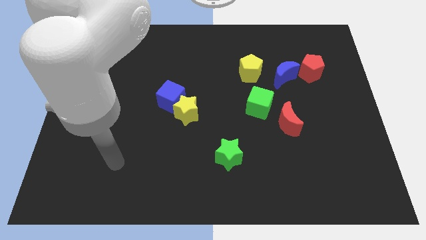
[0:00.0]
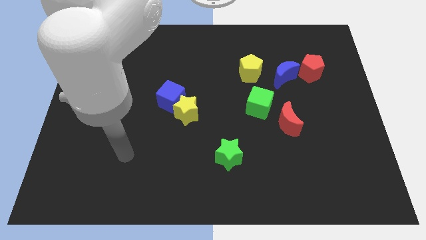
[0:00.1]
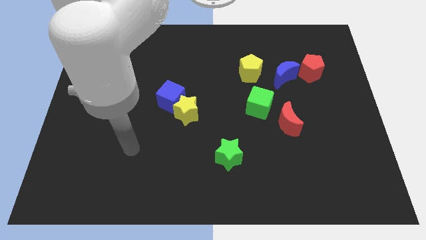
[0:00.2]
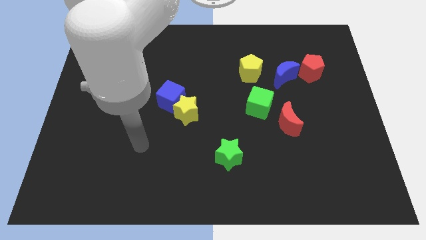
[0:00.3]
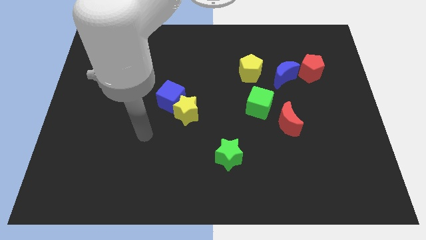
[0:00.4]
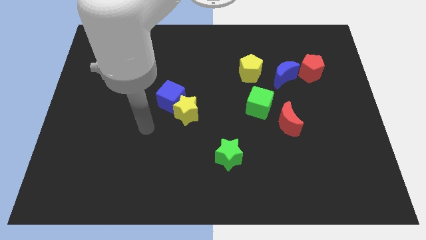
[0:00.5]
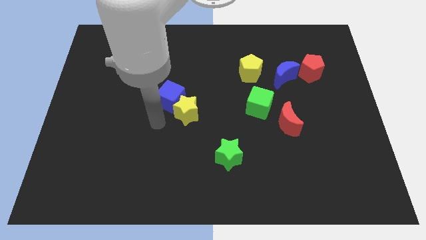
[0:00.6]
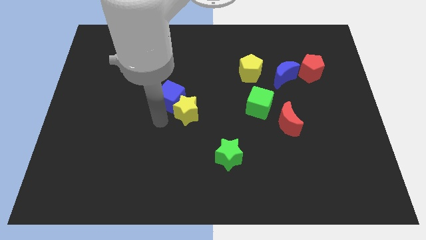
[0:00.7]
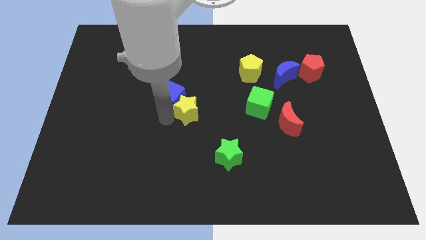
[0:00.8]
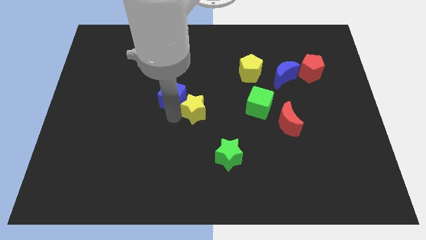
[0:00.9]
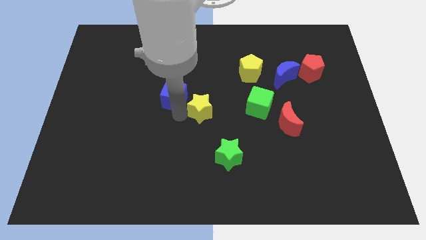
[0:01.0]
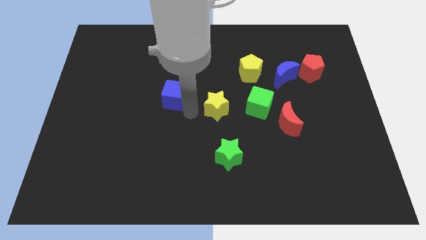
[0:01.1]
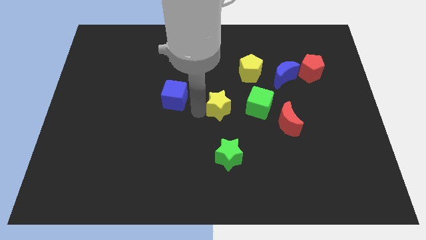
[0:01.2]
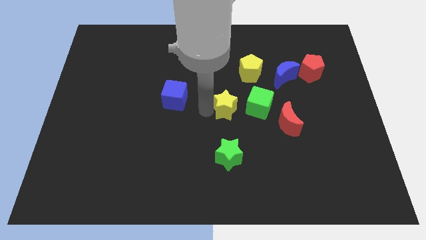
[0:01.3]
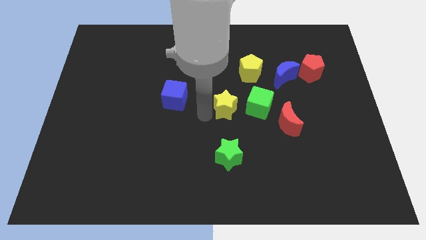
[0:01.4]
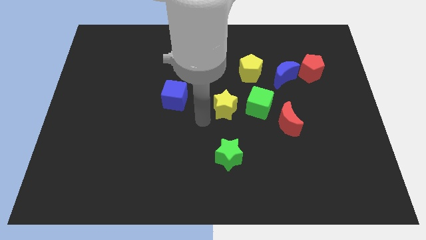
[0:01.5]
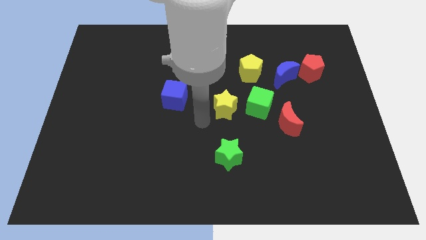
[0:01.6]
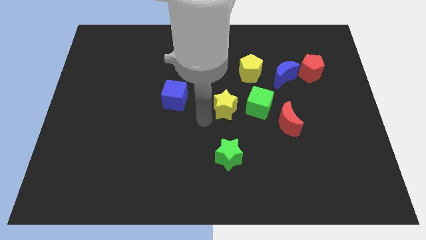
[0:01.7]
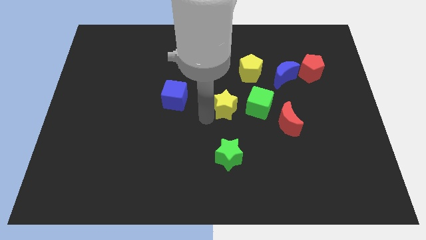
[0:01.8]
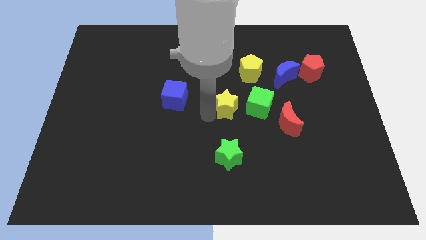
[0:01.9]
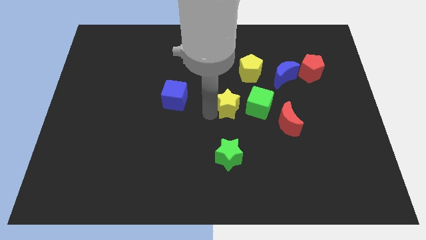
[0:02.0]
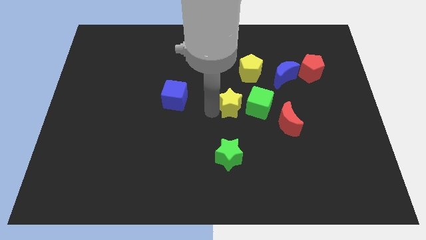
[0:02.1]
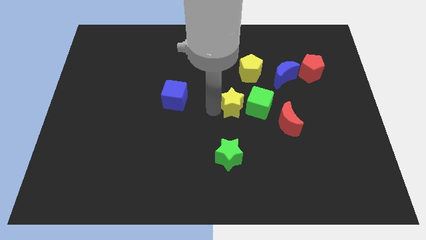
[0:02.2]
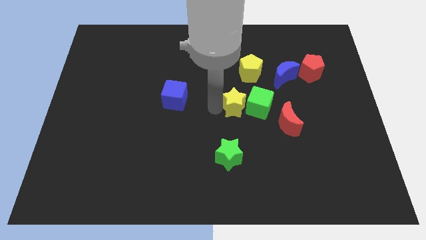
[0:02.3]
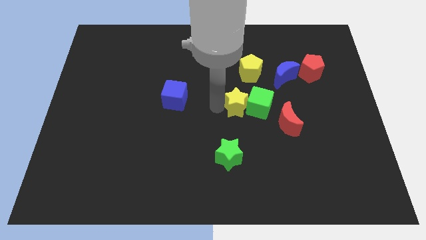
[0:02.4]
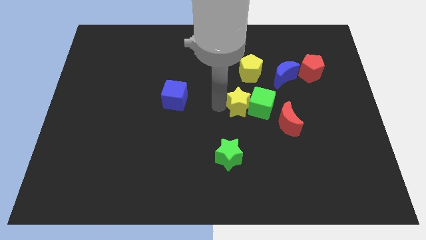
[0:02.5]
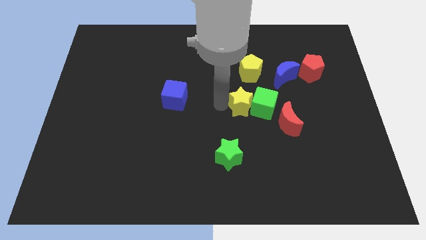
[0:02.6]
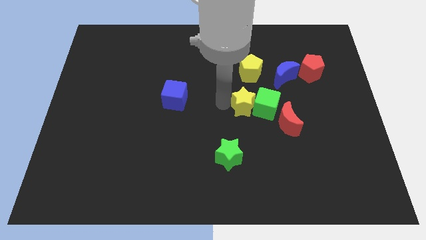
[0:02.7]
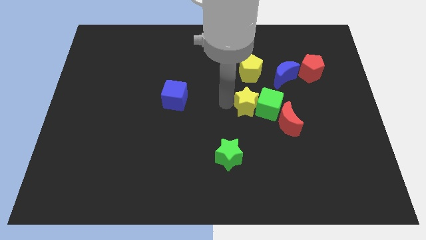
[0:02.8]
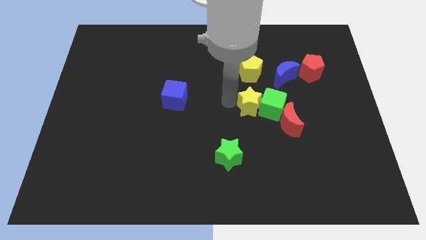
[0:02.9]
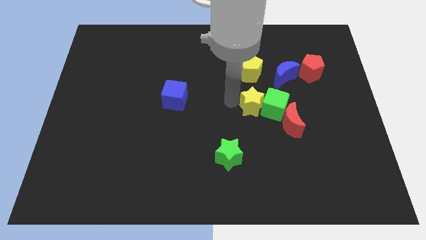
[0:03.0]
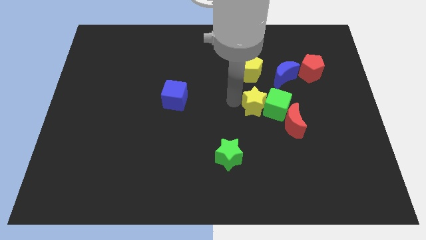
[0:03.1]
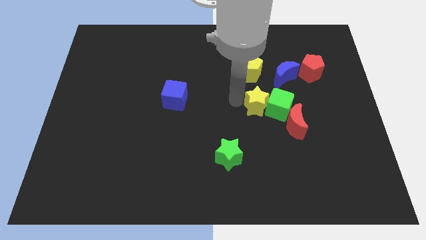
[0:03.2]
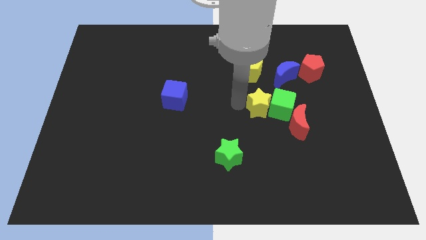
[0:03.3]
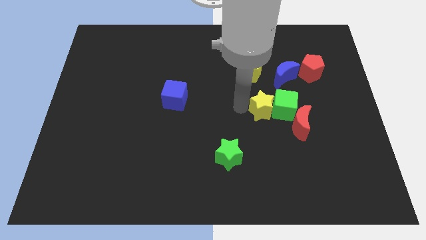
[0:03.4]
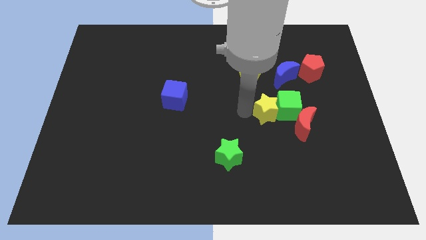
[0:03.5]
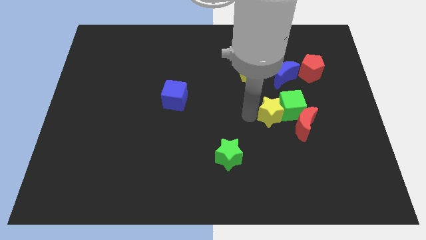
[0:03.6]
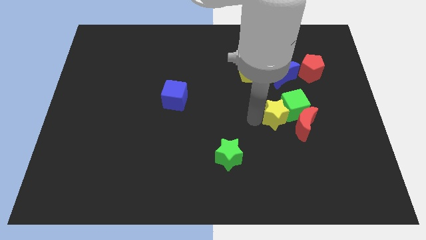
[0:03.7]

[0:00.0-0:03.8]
move the yellow star right

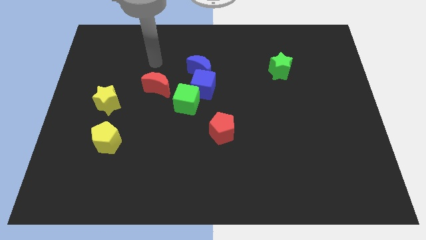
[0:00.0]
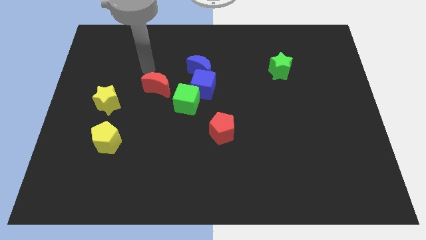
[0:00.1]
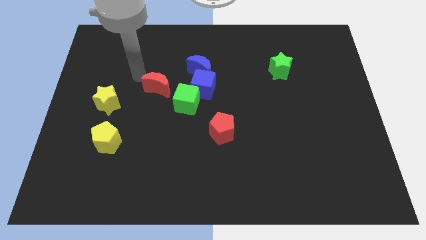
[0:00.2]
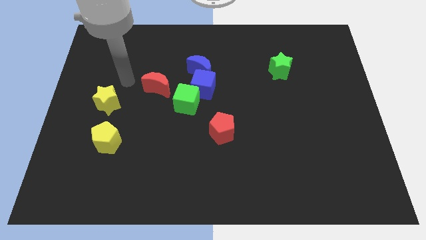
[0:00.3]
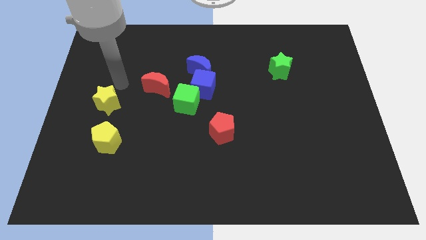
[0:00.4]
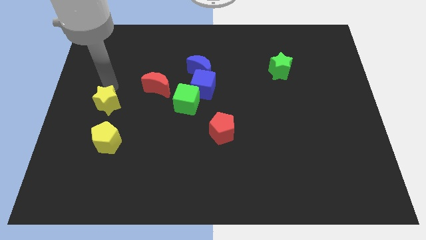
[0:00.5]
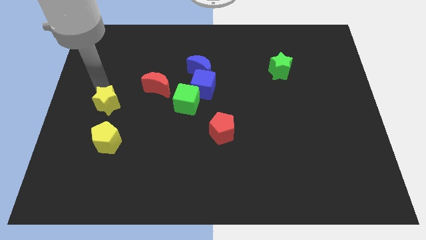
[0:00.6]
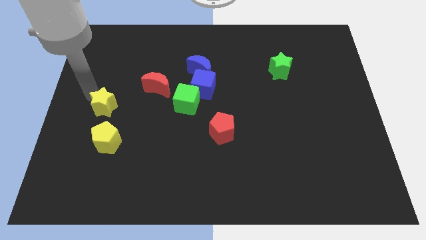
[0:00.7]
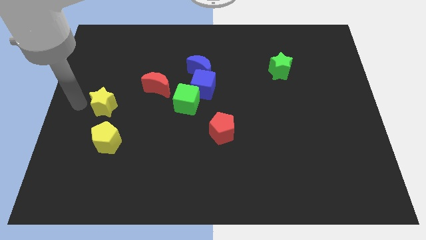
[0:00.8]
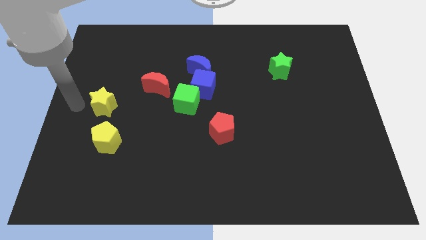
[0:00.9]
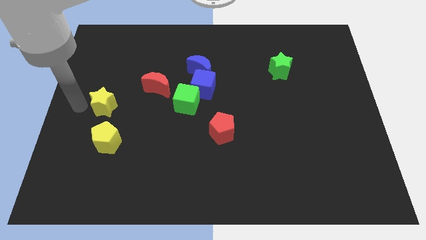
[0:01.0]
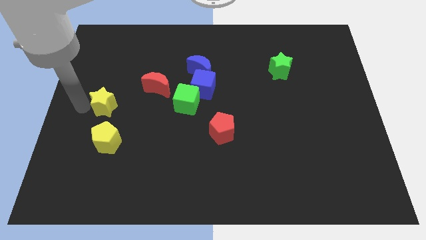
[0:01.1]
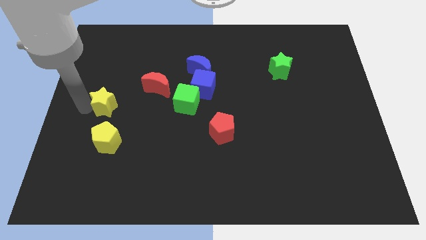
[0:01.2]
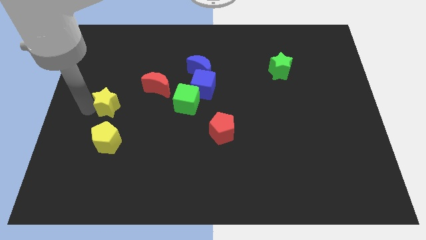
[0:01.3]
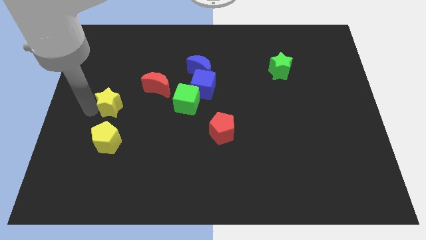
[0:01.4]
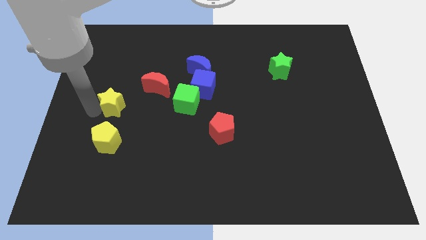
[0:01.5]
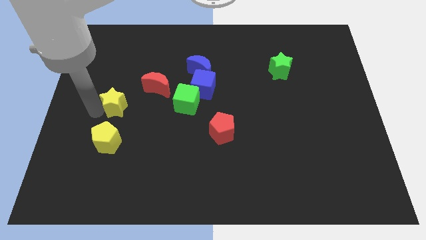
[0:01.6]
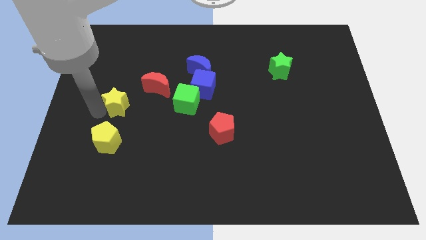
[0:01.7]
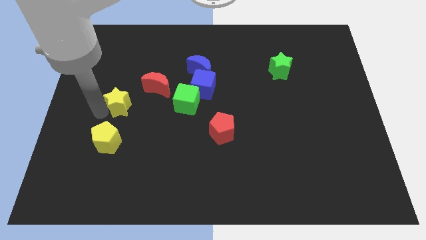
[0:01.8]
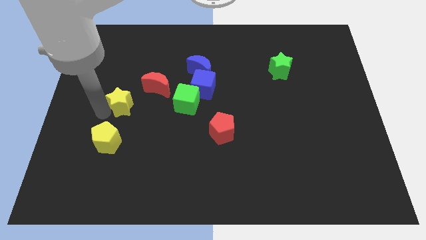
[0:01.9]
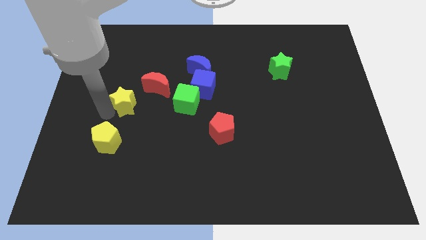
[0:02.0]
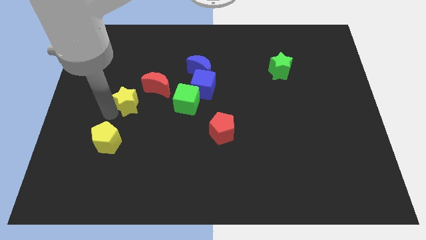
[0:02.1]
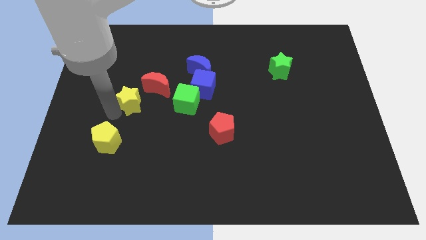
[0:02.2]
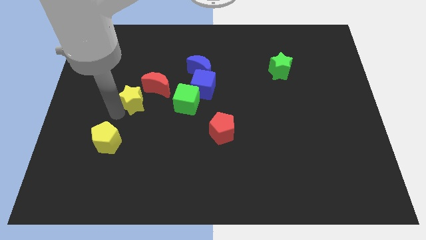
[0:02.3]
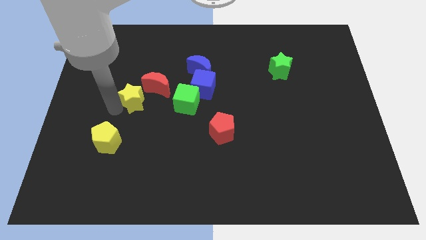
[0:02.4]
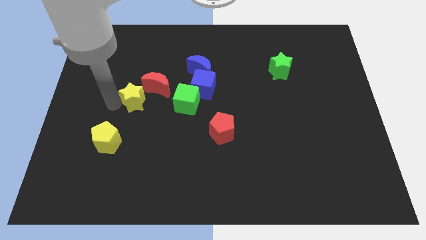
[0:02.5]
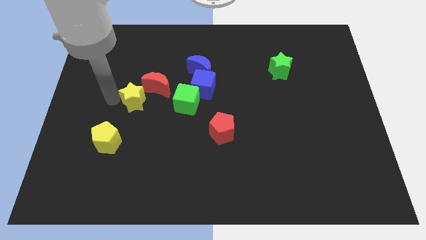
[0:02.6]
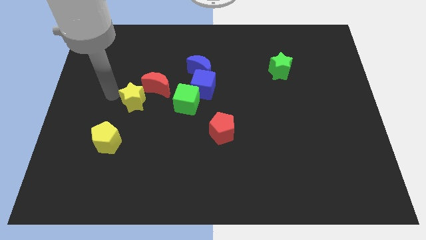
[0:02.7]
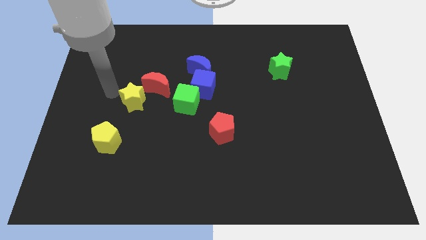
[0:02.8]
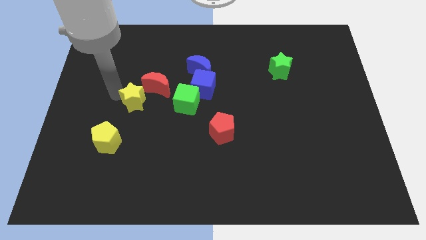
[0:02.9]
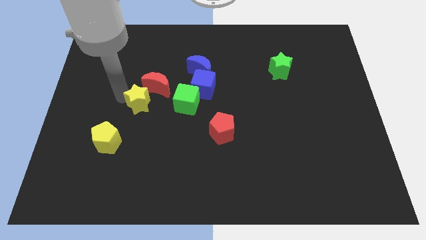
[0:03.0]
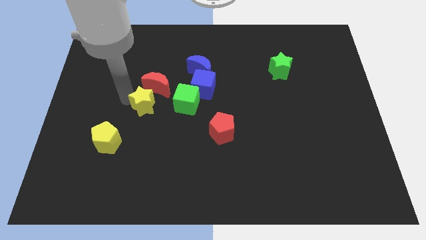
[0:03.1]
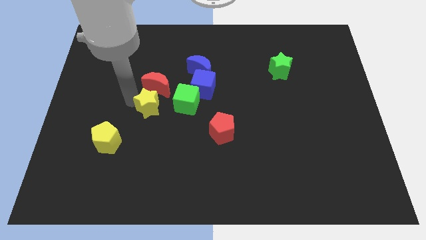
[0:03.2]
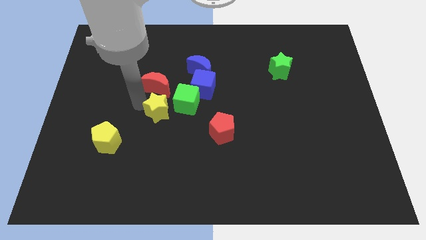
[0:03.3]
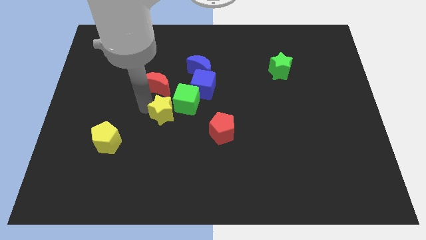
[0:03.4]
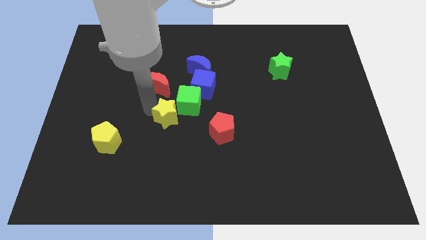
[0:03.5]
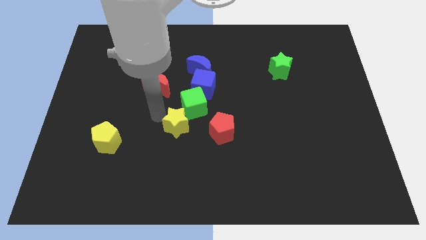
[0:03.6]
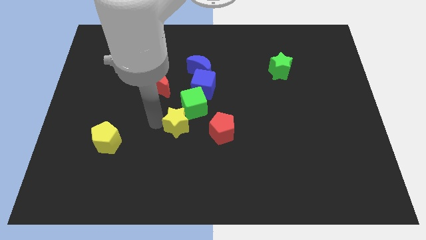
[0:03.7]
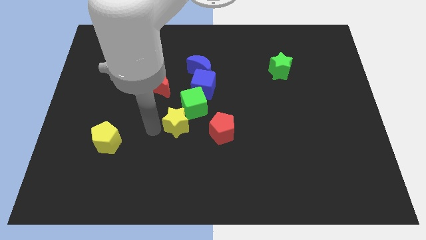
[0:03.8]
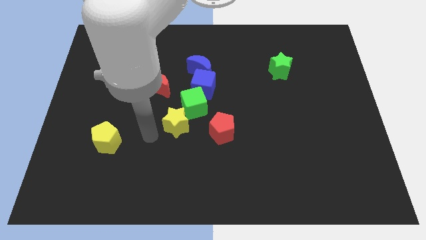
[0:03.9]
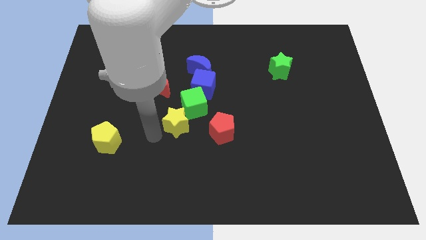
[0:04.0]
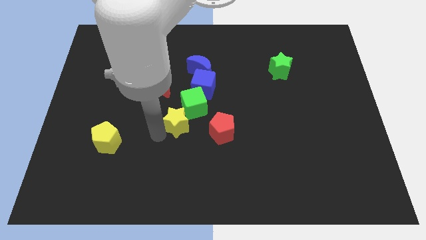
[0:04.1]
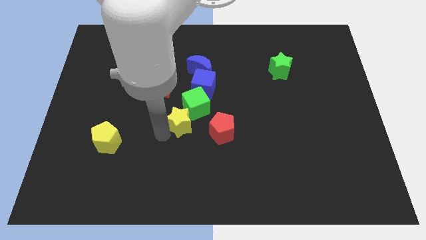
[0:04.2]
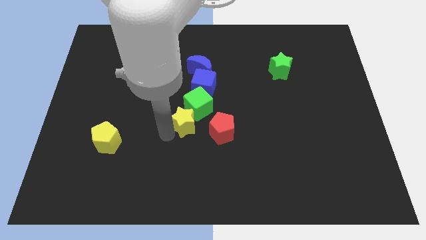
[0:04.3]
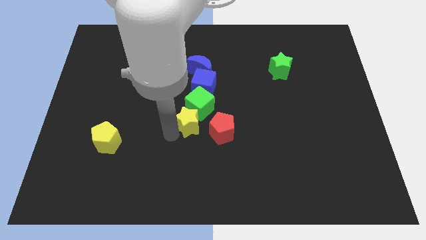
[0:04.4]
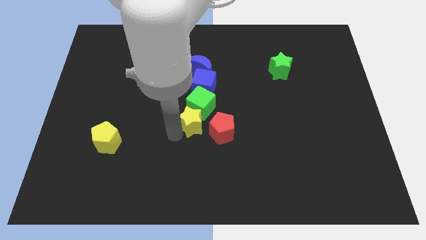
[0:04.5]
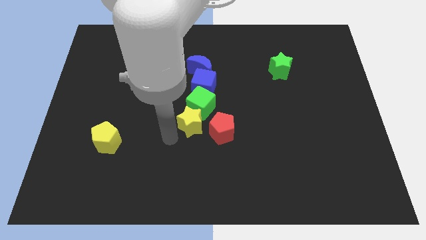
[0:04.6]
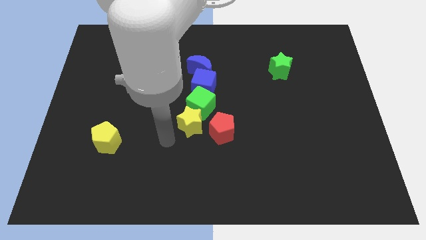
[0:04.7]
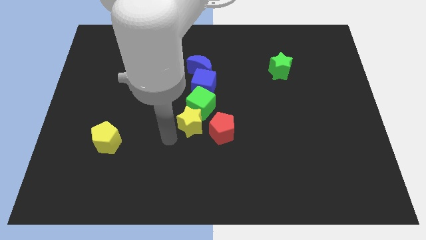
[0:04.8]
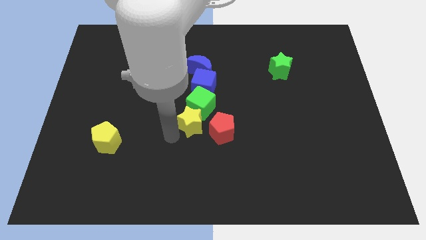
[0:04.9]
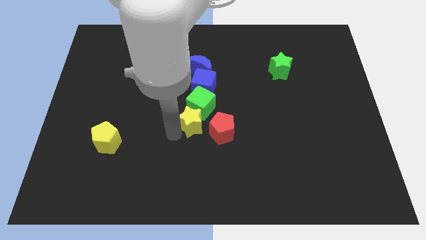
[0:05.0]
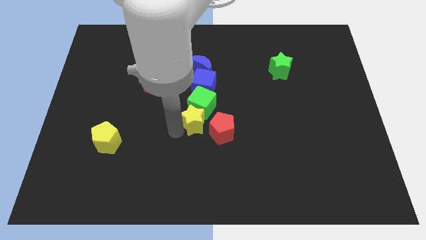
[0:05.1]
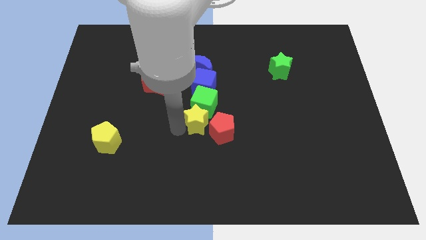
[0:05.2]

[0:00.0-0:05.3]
slide the yellow star right
